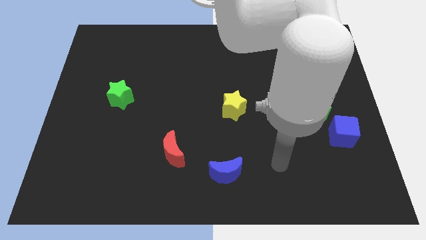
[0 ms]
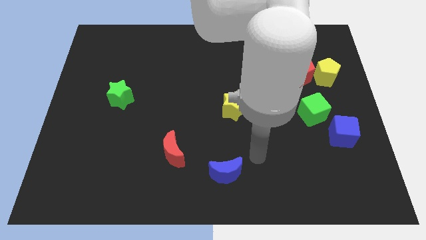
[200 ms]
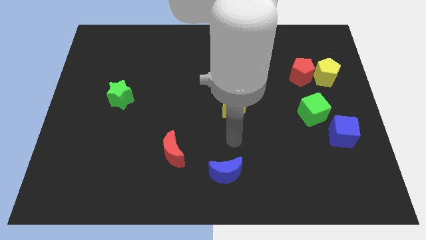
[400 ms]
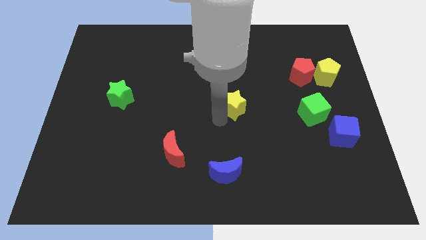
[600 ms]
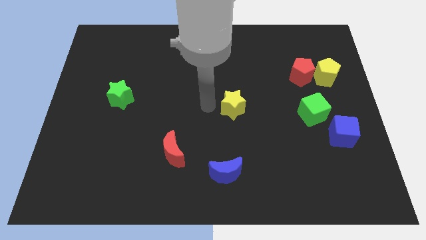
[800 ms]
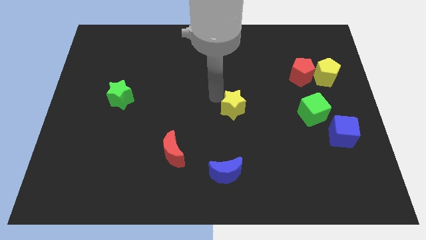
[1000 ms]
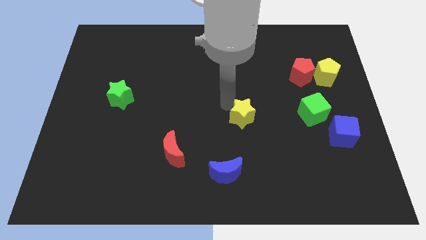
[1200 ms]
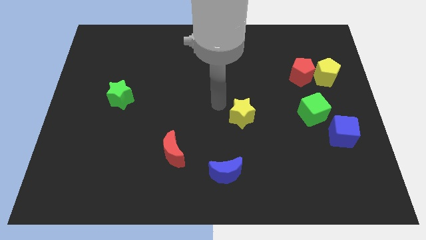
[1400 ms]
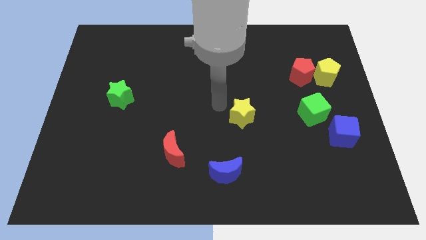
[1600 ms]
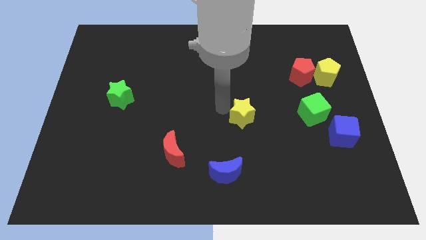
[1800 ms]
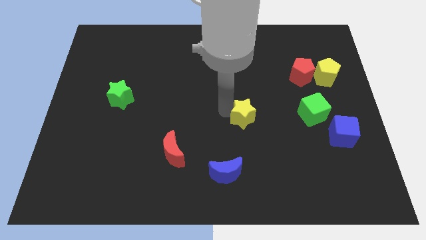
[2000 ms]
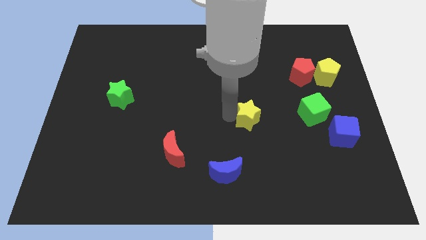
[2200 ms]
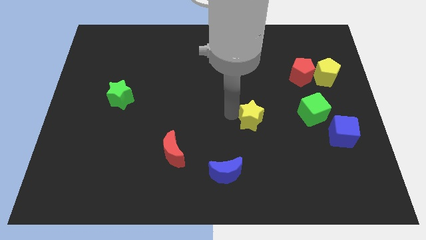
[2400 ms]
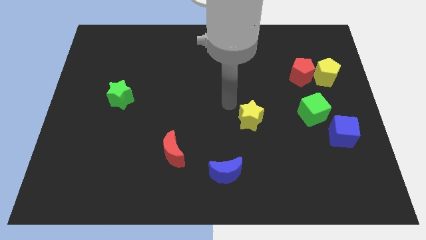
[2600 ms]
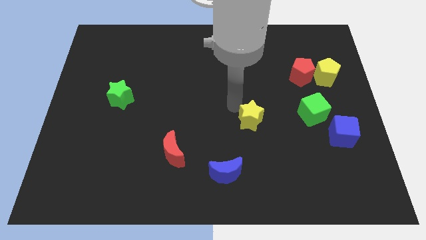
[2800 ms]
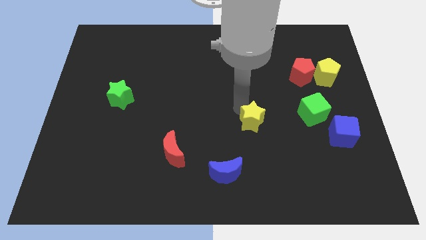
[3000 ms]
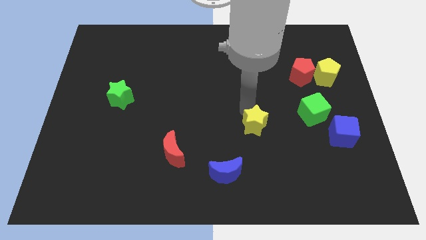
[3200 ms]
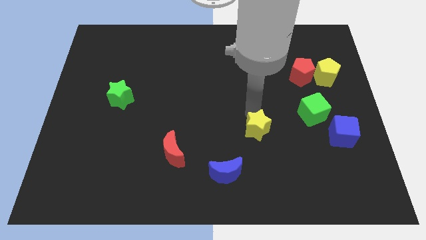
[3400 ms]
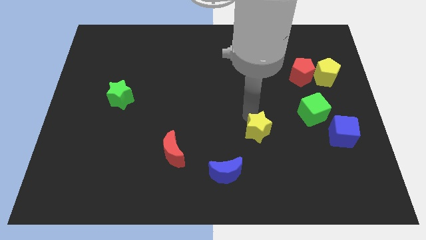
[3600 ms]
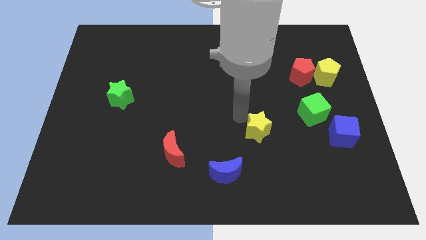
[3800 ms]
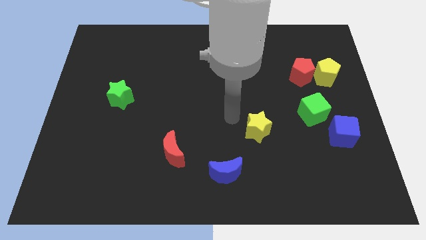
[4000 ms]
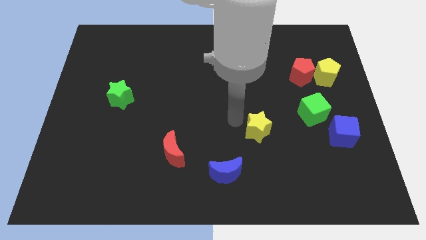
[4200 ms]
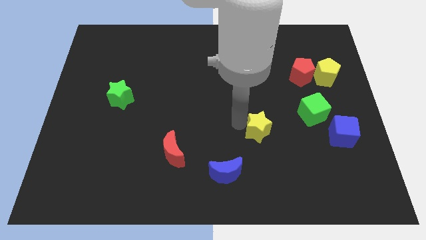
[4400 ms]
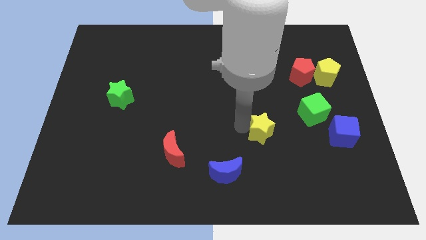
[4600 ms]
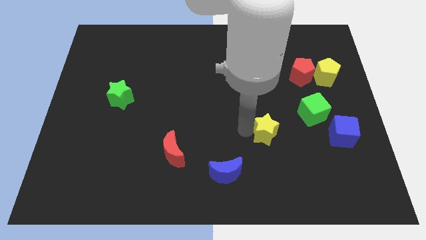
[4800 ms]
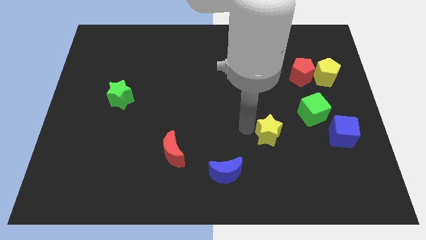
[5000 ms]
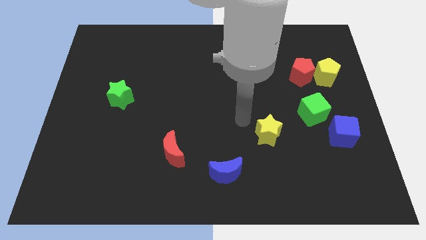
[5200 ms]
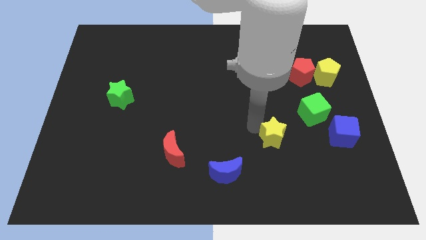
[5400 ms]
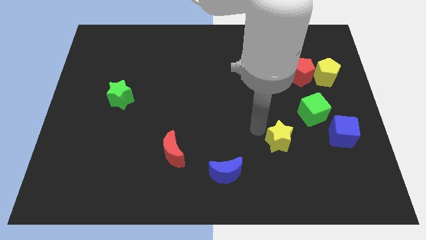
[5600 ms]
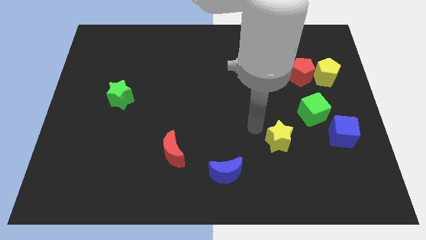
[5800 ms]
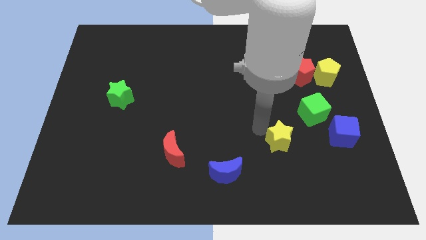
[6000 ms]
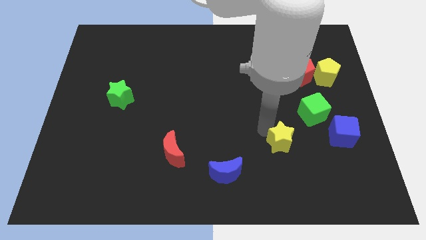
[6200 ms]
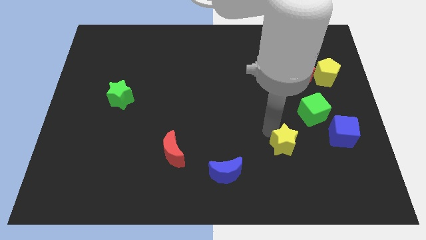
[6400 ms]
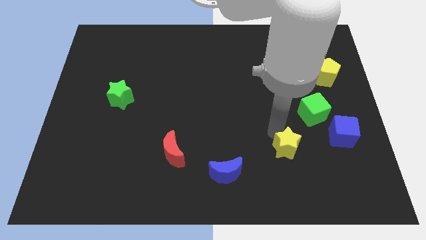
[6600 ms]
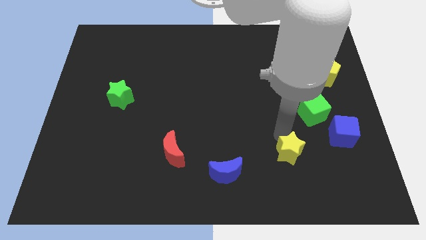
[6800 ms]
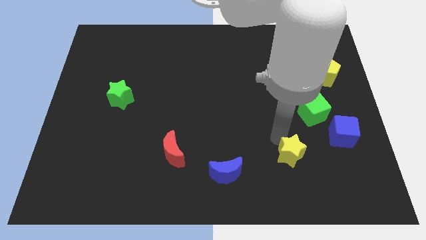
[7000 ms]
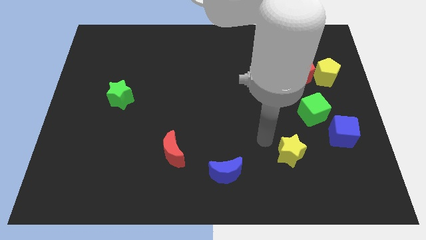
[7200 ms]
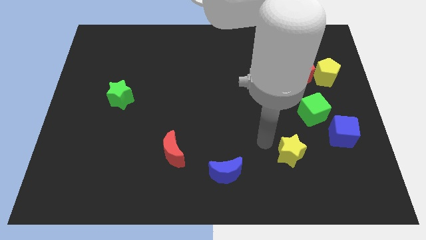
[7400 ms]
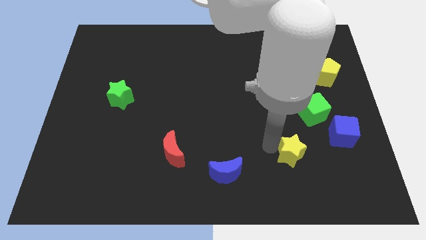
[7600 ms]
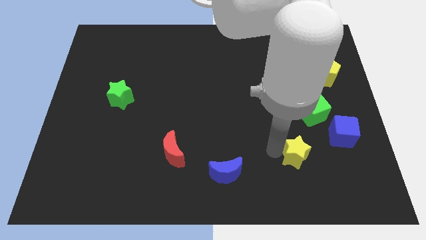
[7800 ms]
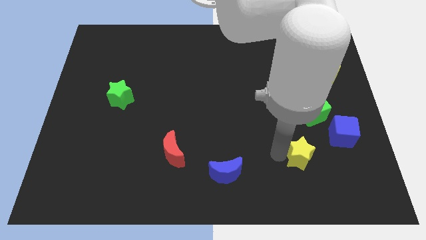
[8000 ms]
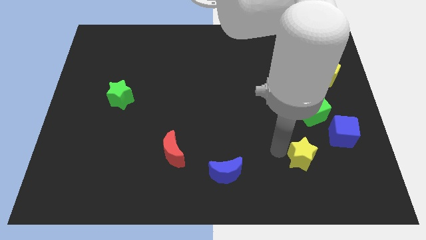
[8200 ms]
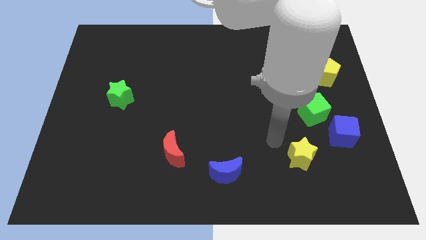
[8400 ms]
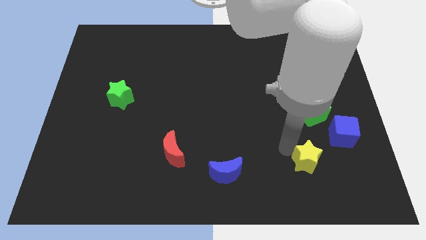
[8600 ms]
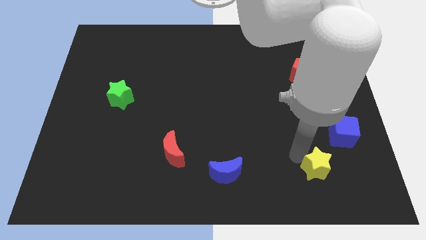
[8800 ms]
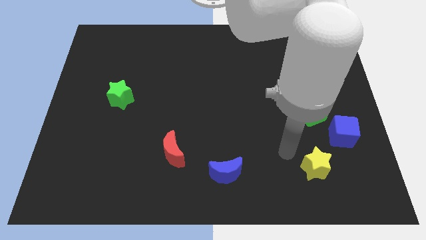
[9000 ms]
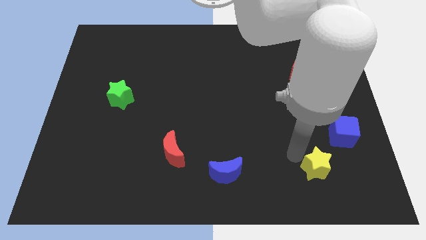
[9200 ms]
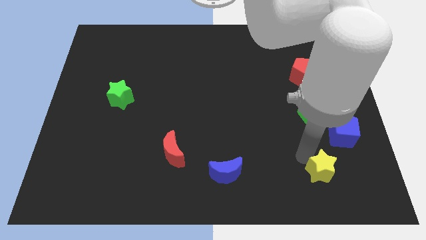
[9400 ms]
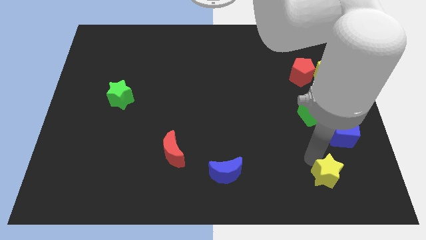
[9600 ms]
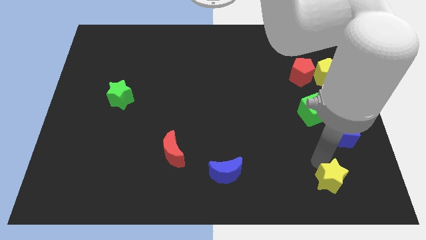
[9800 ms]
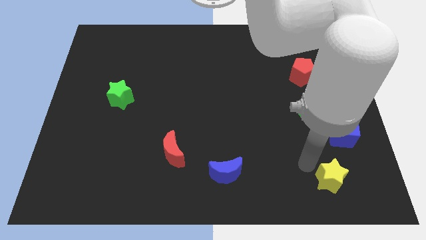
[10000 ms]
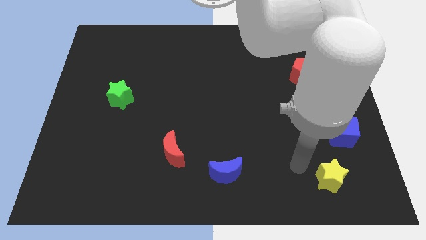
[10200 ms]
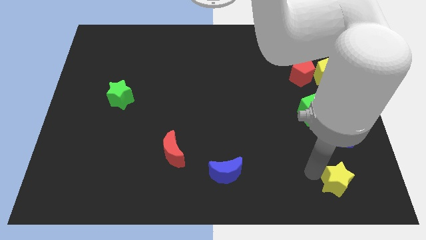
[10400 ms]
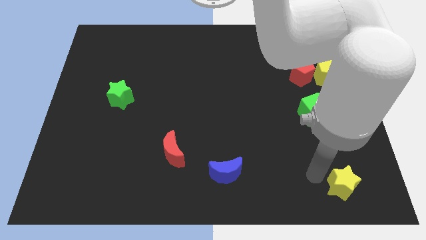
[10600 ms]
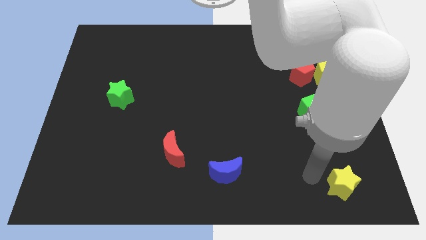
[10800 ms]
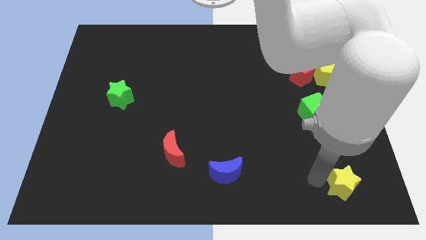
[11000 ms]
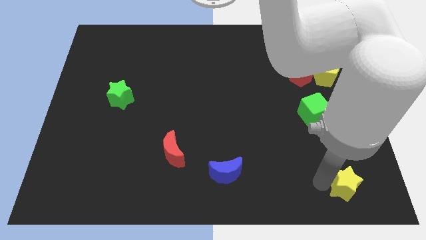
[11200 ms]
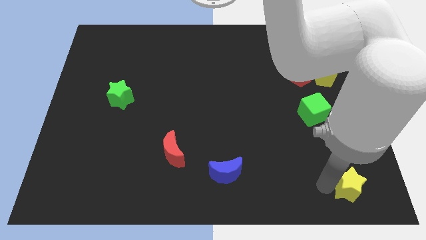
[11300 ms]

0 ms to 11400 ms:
push the yellow star to the lower right corner

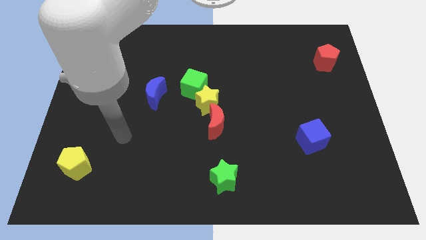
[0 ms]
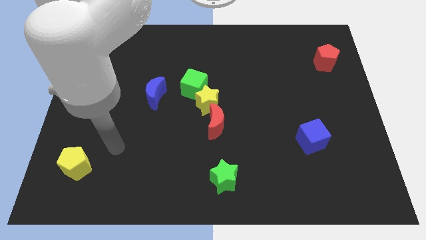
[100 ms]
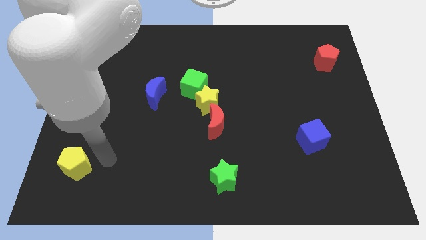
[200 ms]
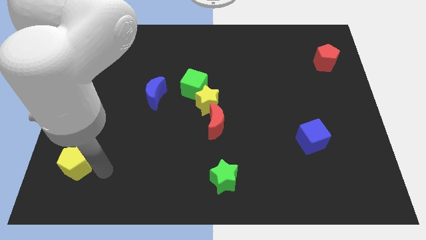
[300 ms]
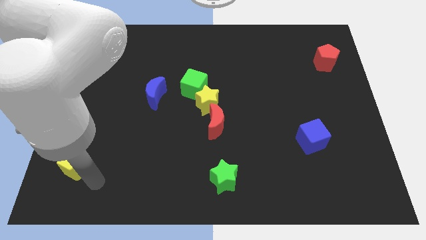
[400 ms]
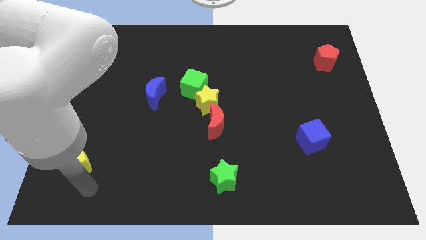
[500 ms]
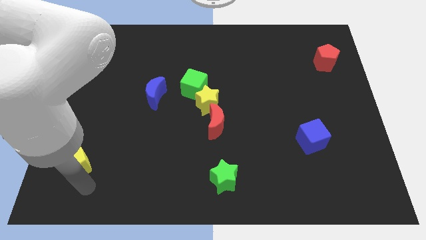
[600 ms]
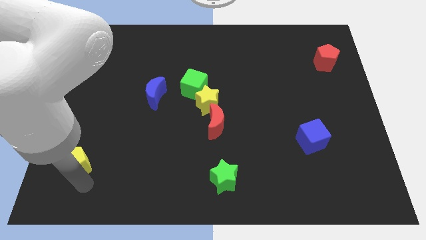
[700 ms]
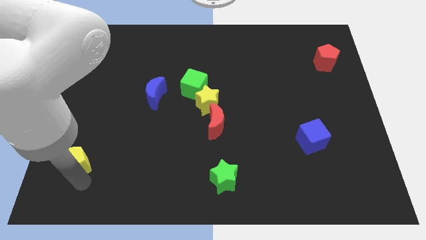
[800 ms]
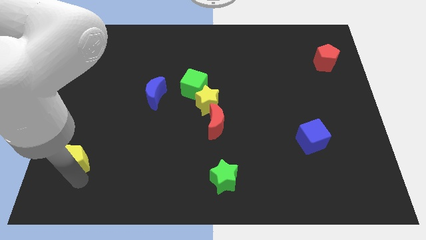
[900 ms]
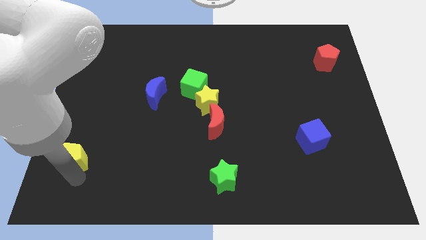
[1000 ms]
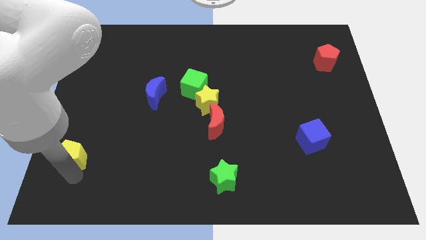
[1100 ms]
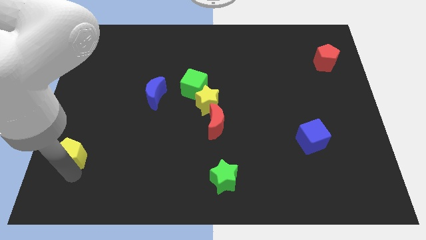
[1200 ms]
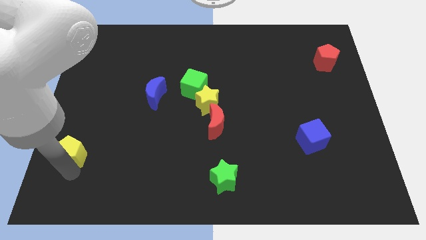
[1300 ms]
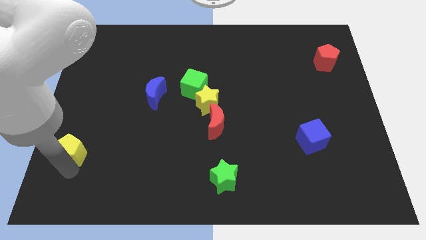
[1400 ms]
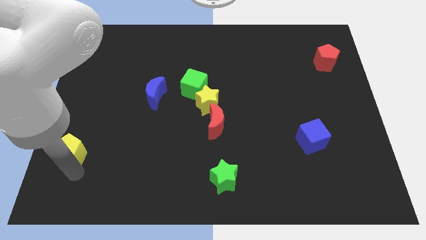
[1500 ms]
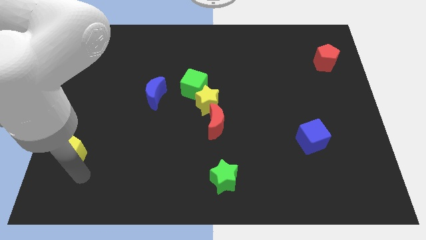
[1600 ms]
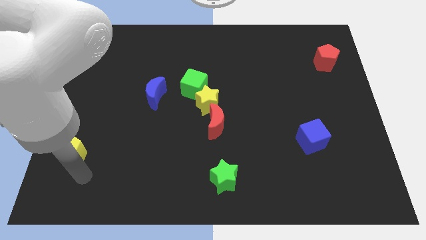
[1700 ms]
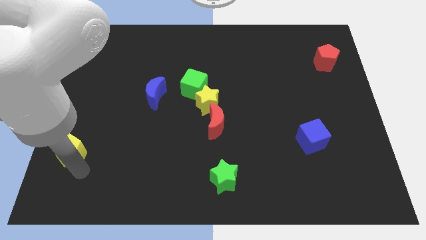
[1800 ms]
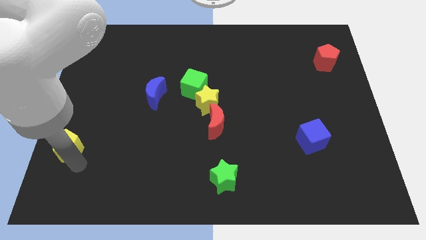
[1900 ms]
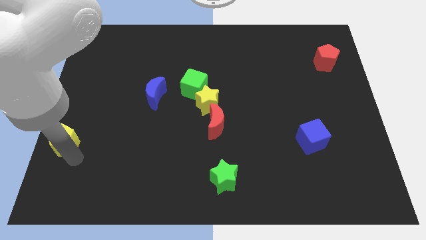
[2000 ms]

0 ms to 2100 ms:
put the yellow pentagon to the left side
